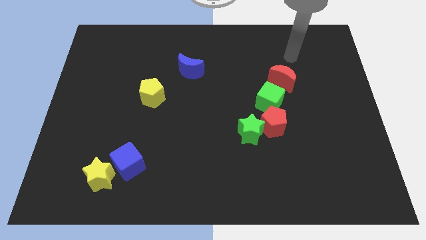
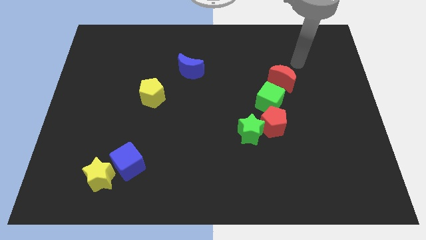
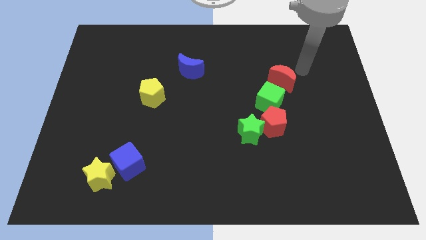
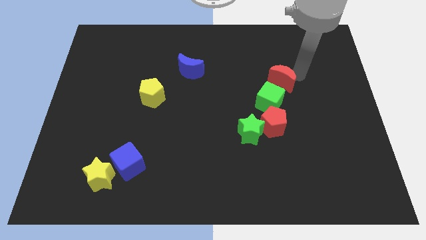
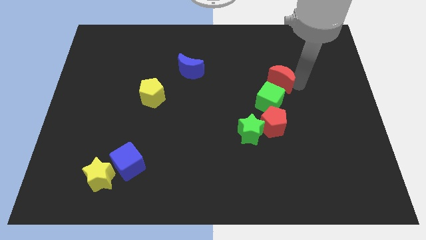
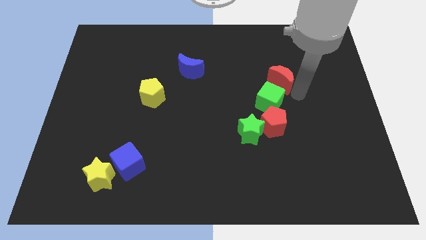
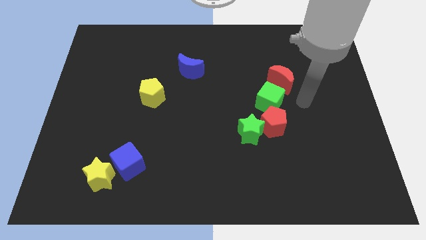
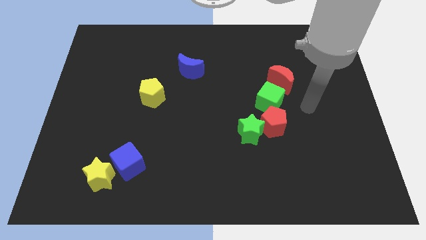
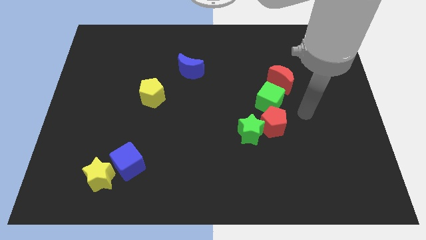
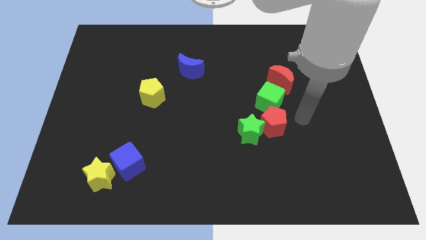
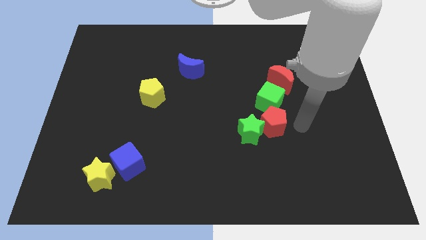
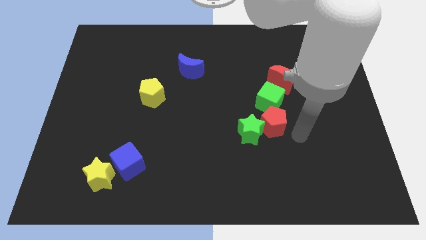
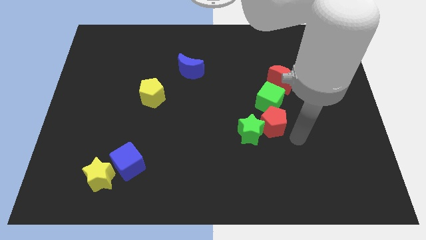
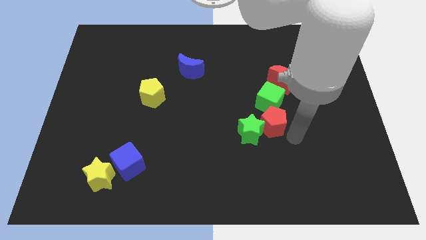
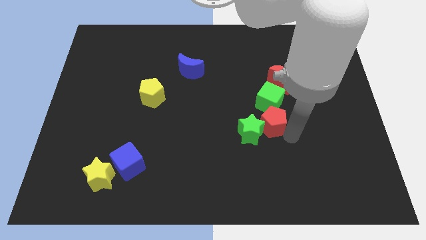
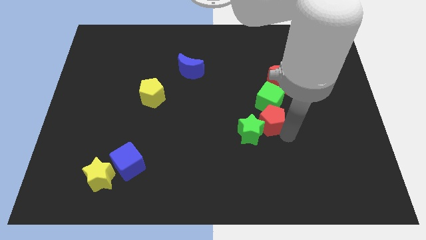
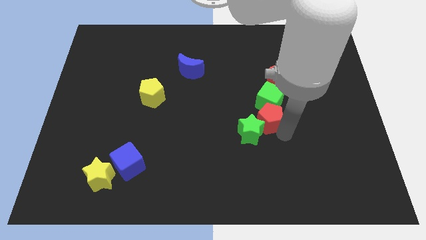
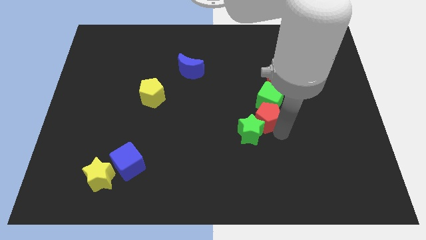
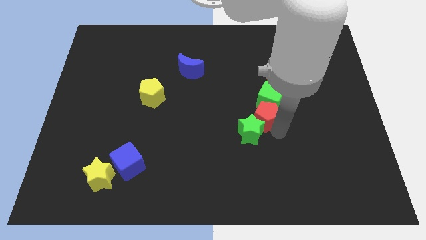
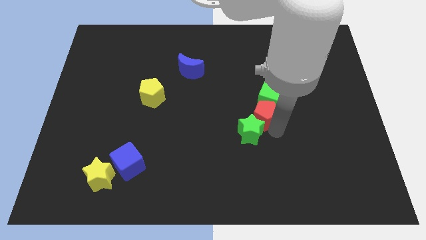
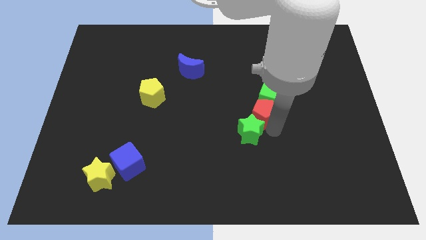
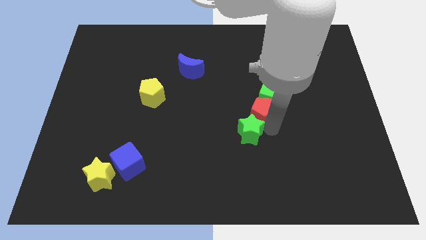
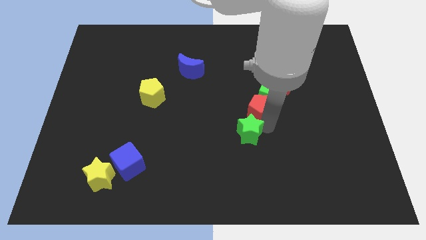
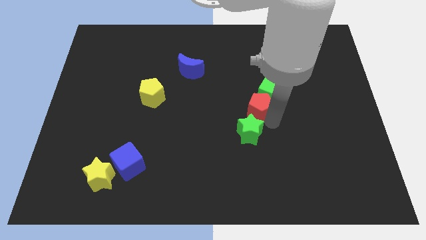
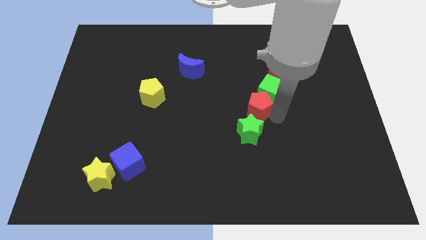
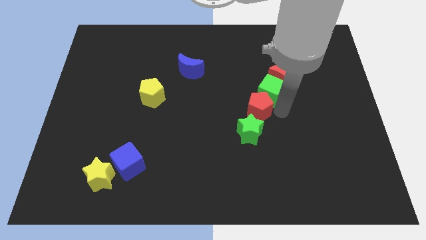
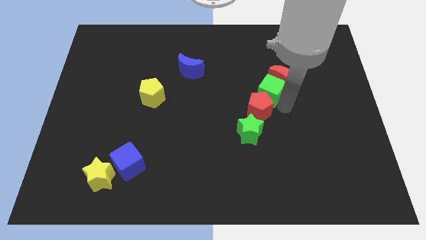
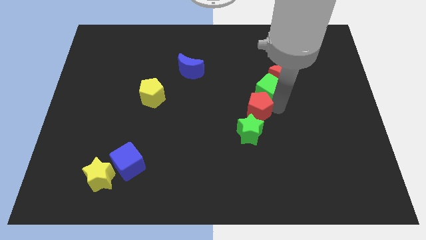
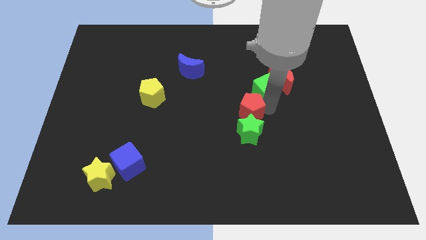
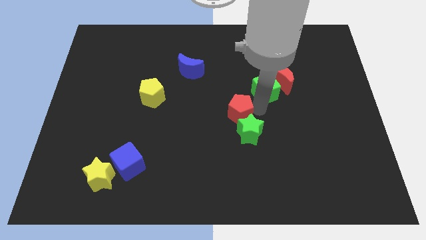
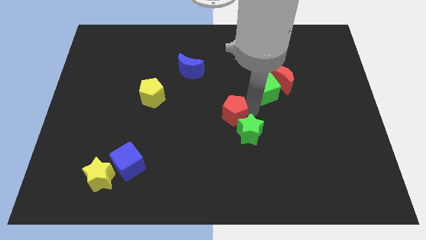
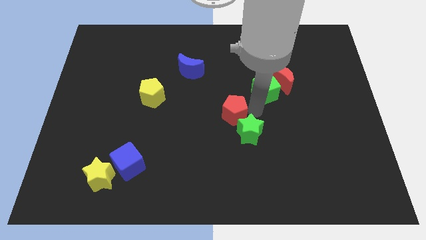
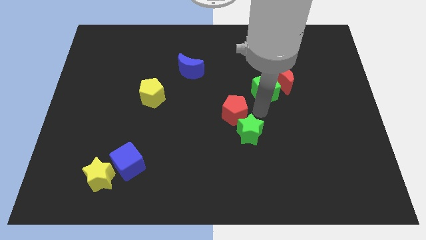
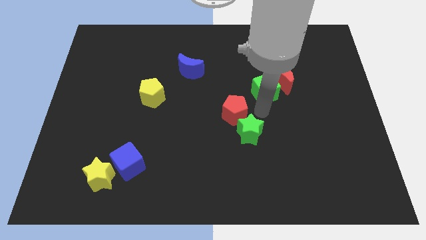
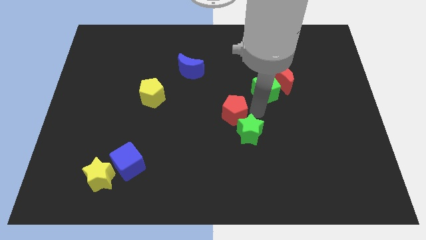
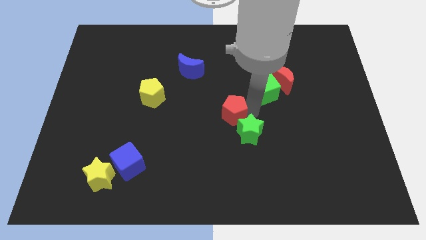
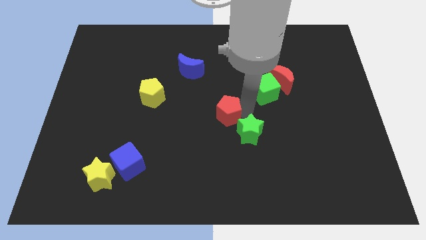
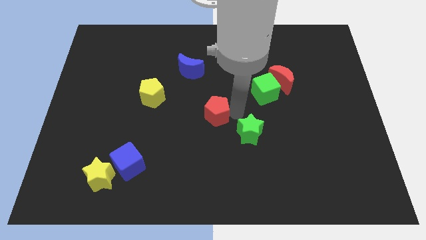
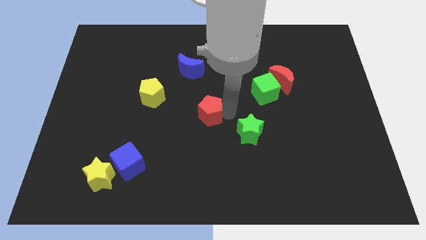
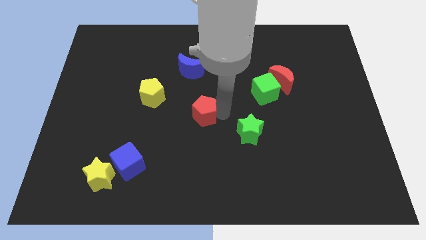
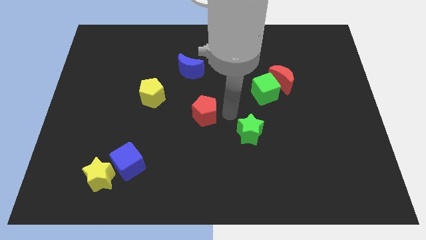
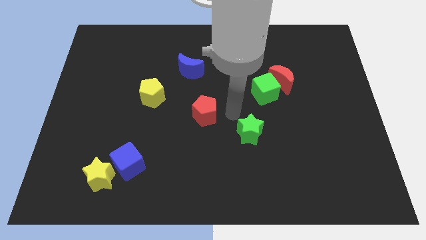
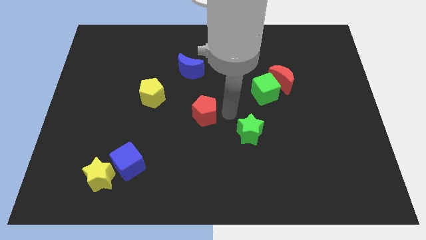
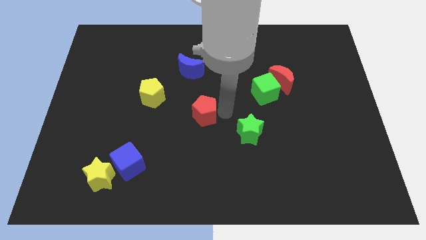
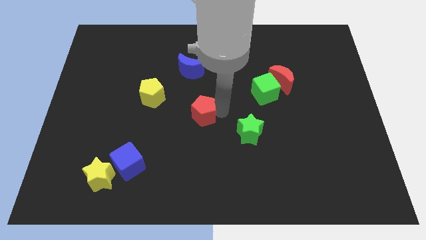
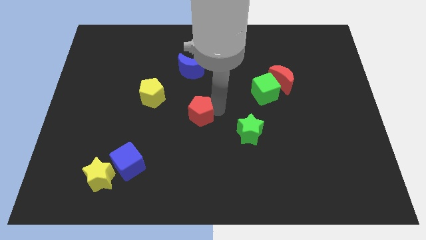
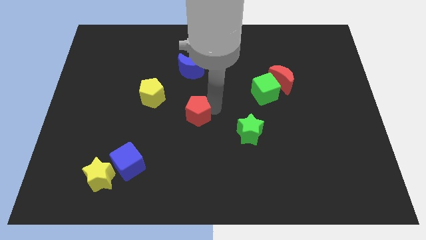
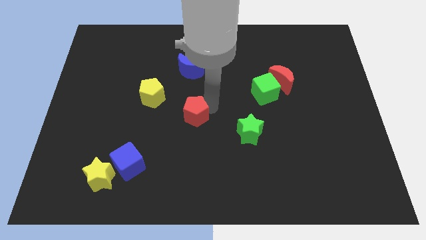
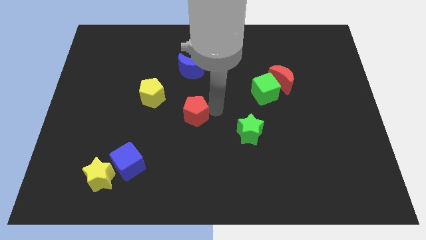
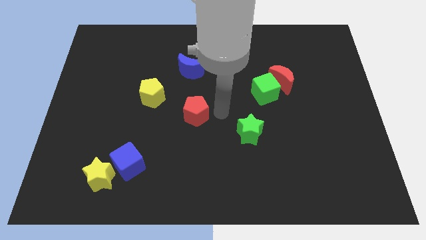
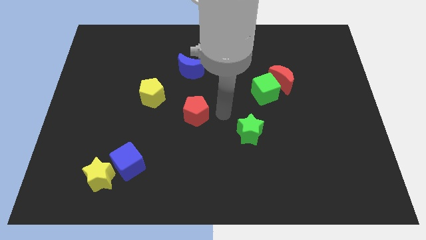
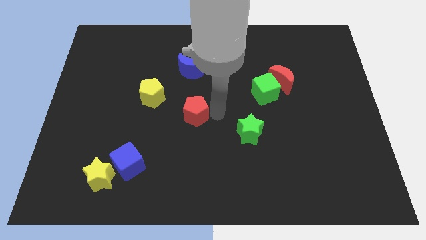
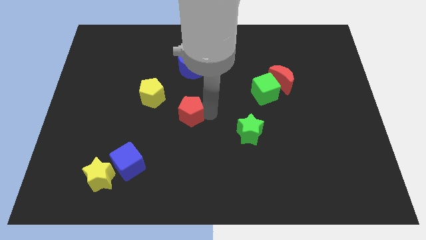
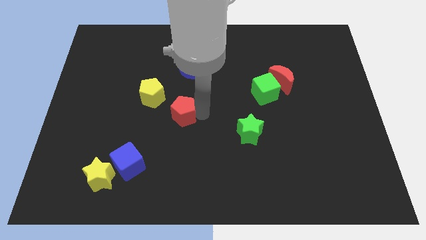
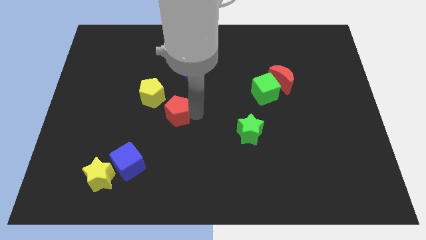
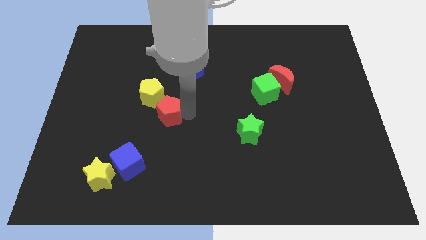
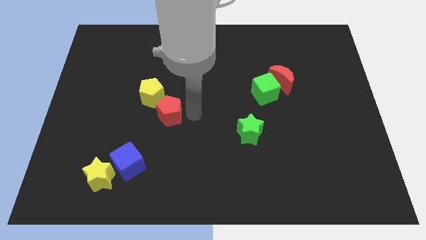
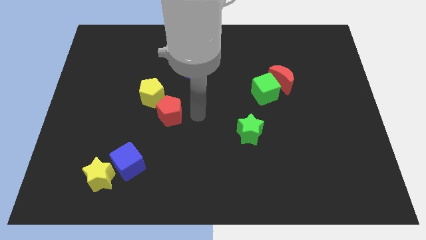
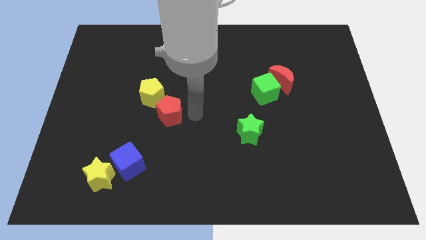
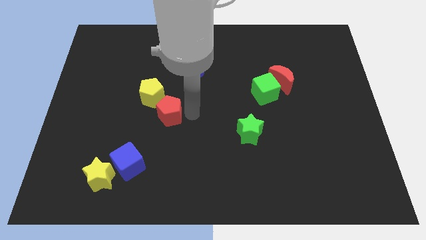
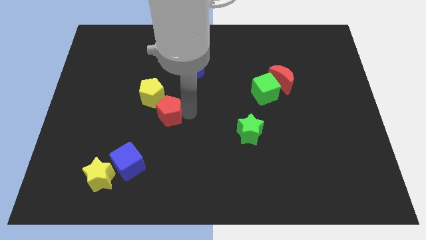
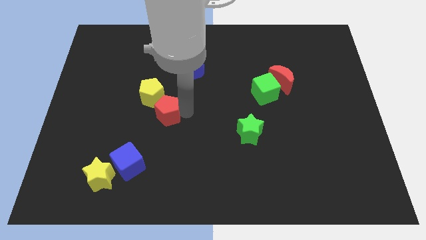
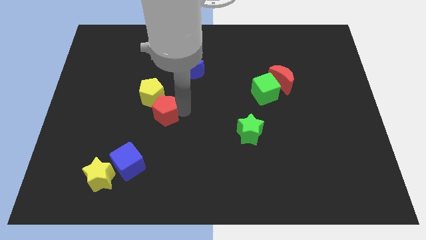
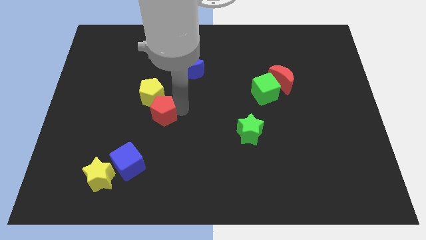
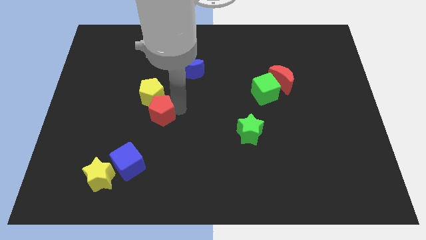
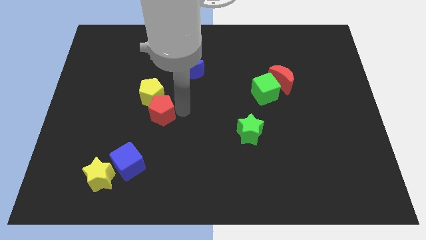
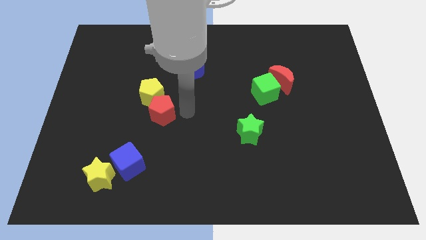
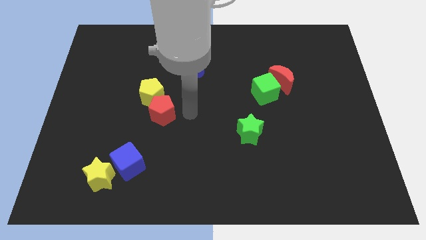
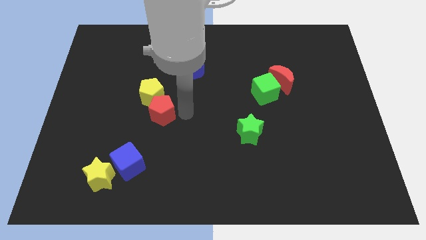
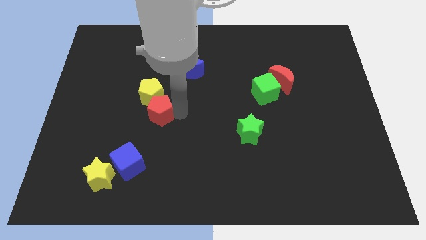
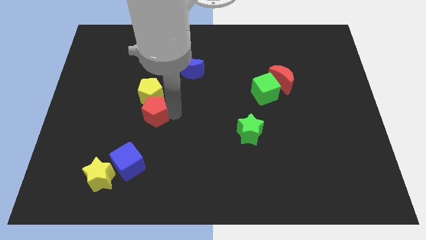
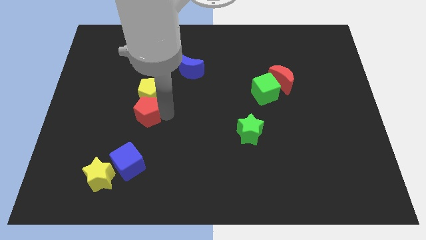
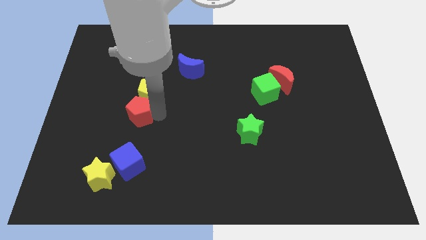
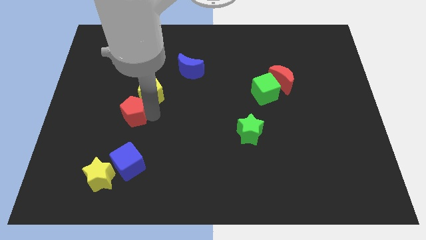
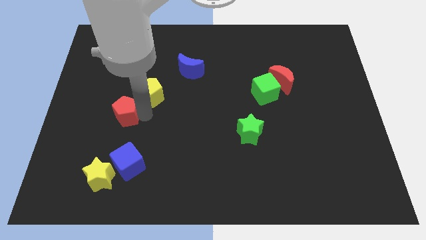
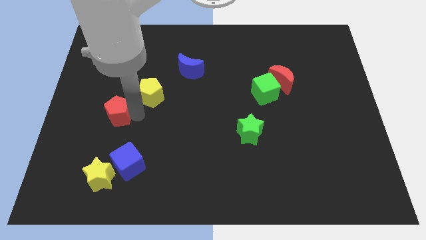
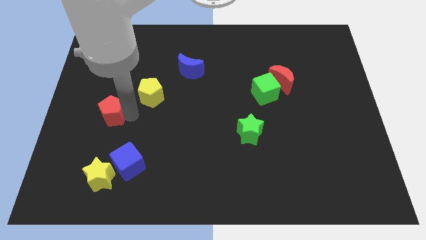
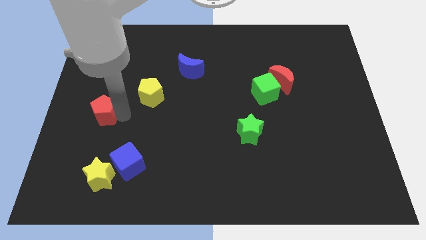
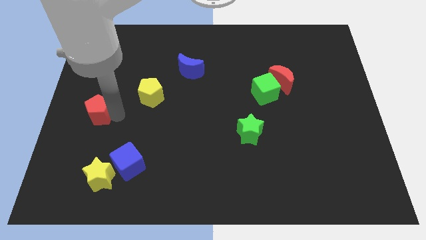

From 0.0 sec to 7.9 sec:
slide the red pentagon to the center left

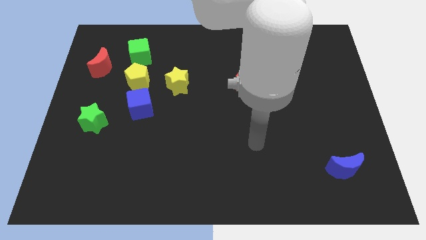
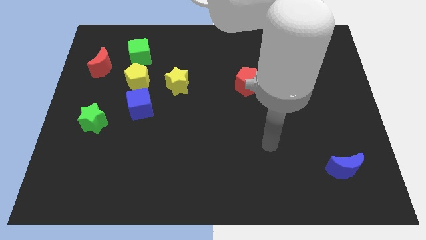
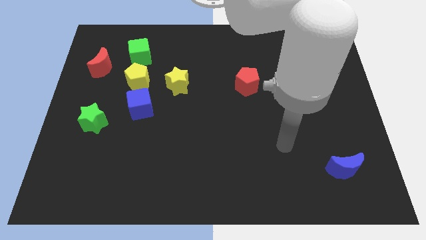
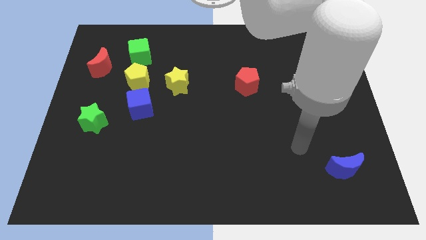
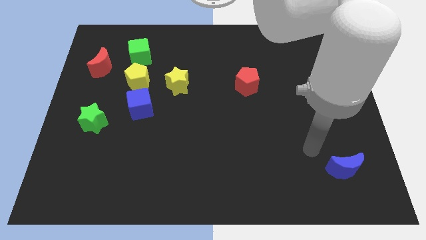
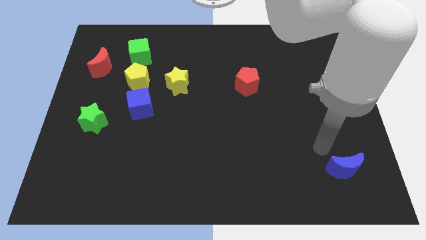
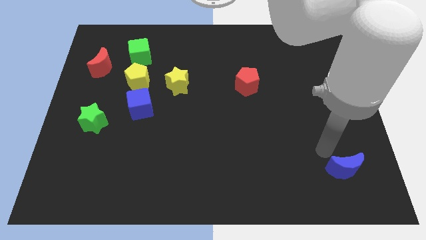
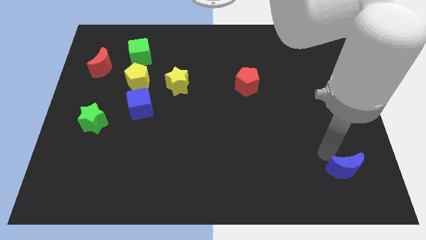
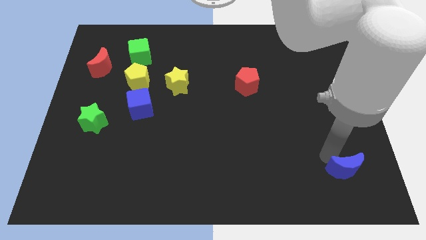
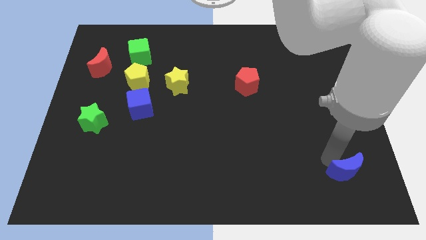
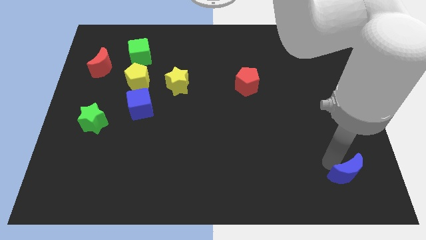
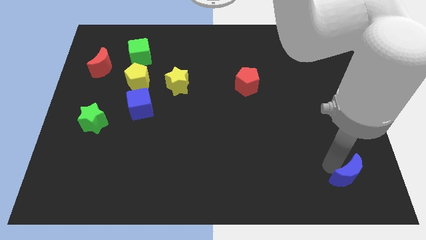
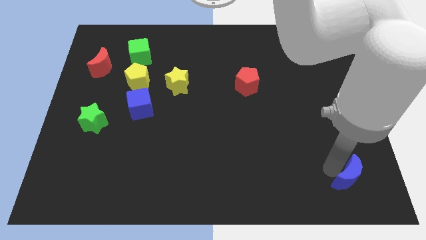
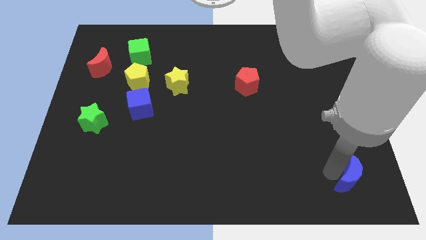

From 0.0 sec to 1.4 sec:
slide the blue moon to the bottom right
